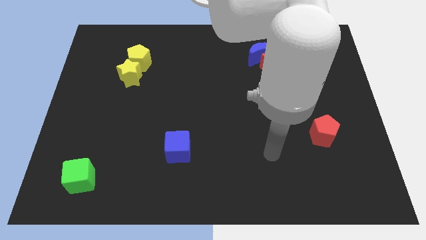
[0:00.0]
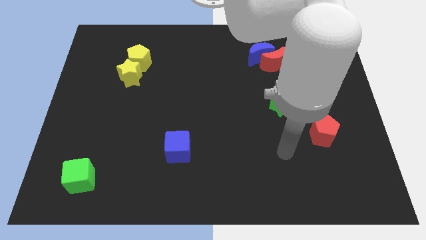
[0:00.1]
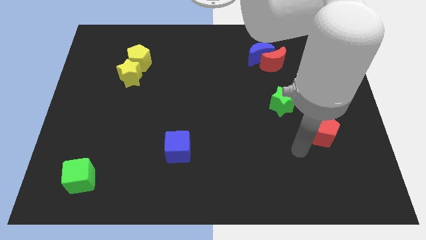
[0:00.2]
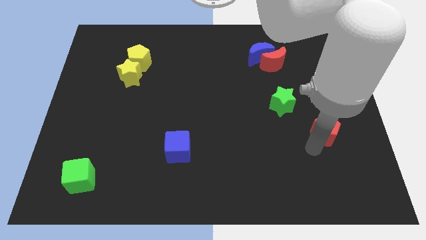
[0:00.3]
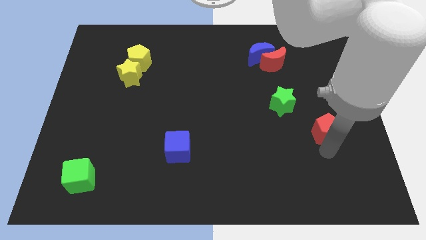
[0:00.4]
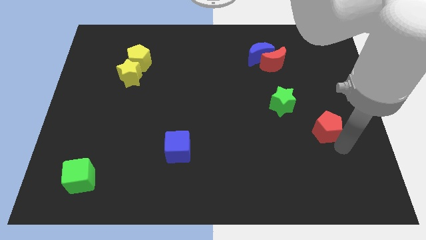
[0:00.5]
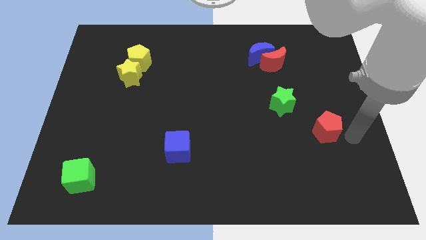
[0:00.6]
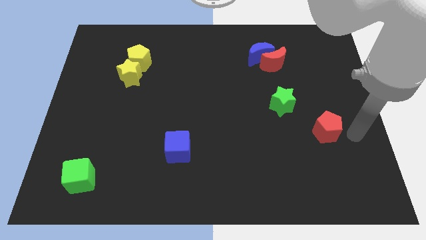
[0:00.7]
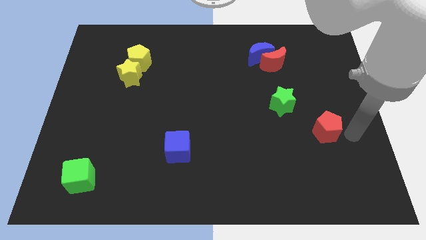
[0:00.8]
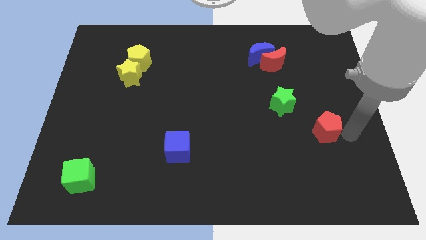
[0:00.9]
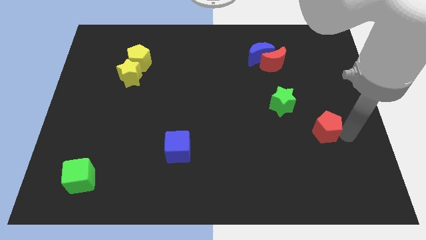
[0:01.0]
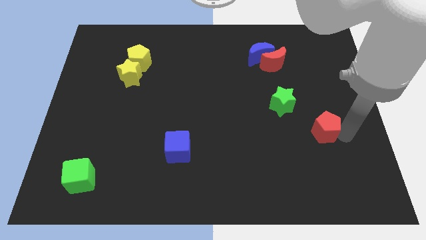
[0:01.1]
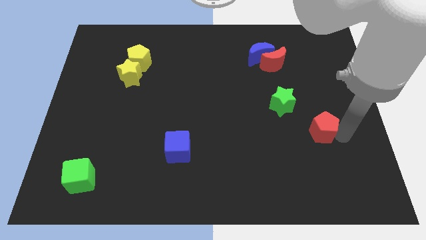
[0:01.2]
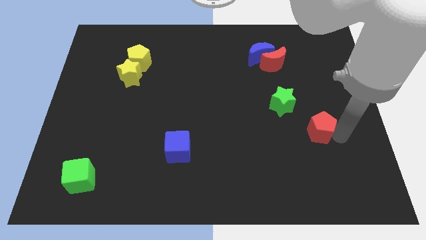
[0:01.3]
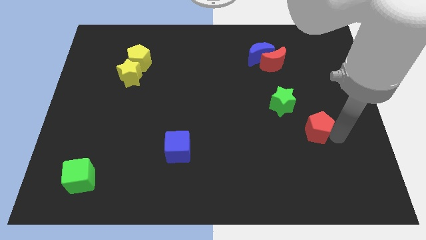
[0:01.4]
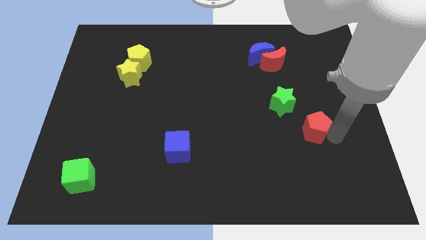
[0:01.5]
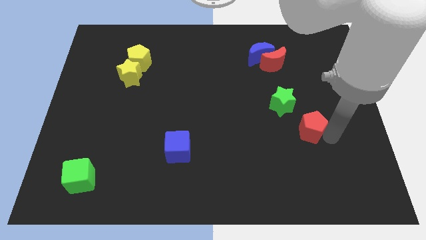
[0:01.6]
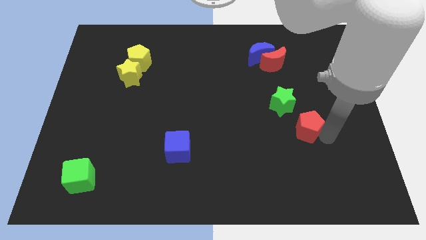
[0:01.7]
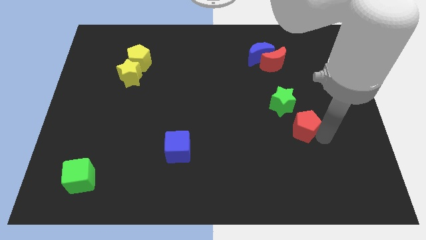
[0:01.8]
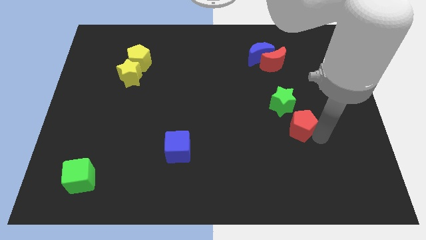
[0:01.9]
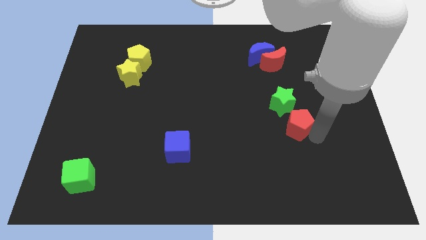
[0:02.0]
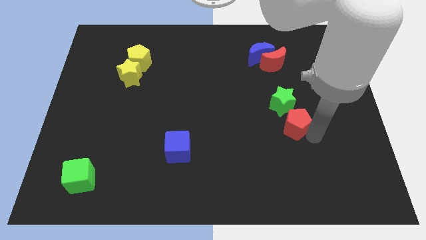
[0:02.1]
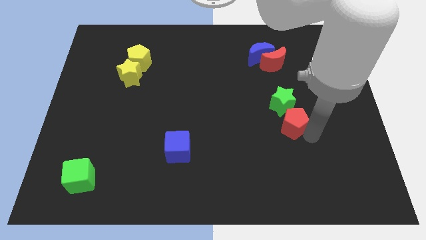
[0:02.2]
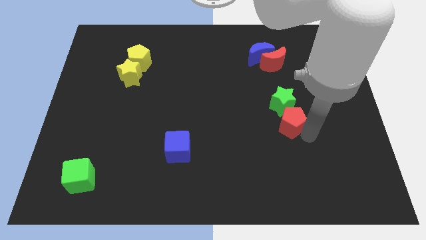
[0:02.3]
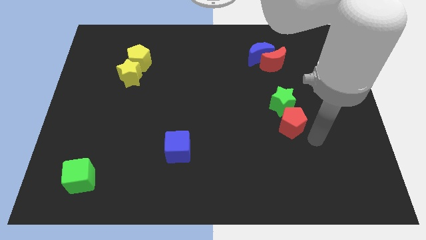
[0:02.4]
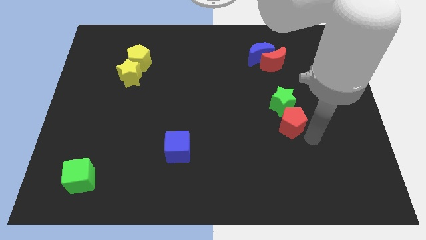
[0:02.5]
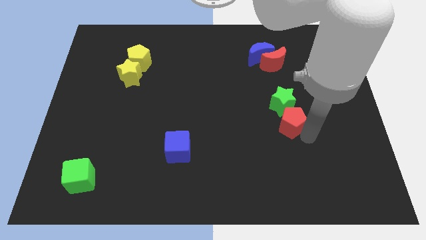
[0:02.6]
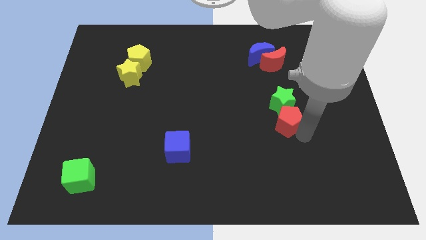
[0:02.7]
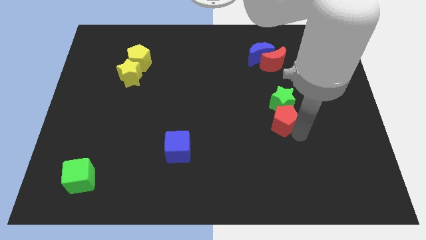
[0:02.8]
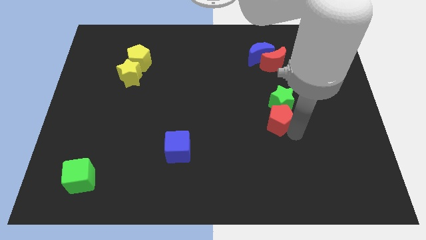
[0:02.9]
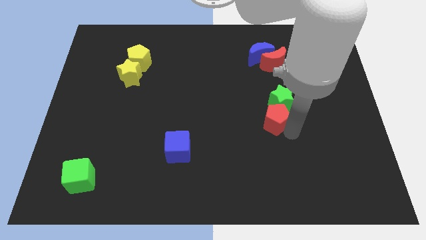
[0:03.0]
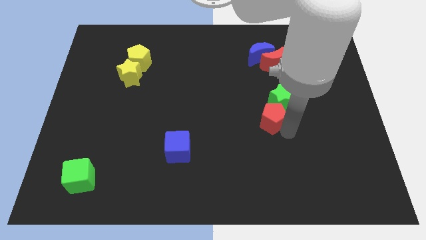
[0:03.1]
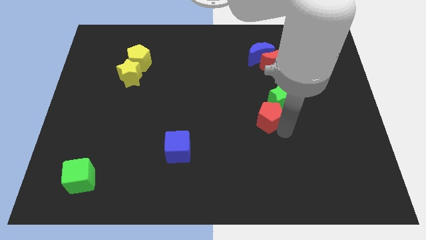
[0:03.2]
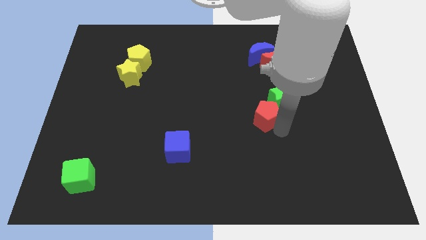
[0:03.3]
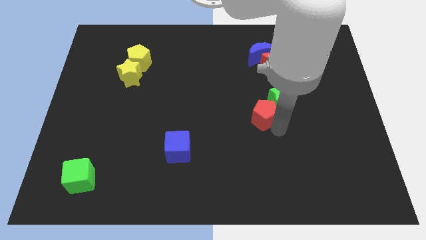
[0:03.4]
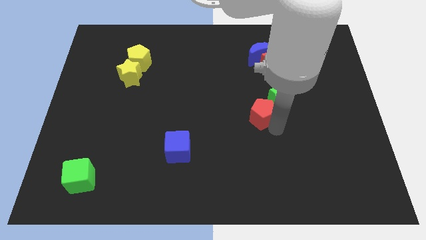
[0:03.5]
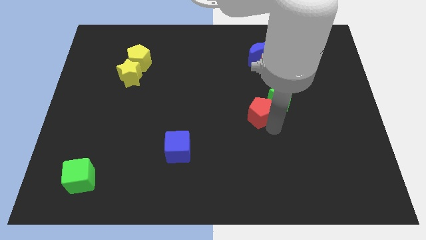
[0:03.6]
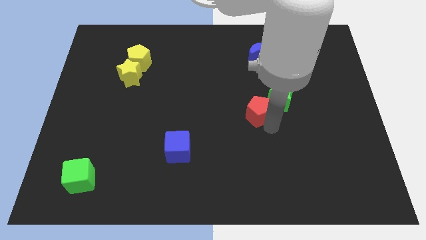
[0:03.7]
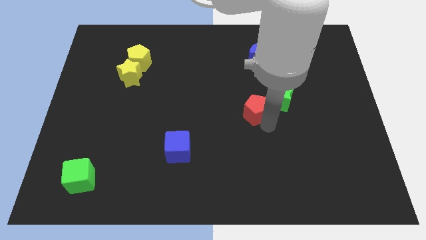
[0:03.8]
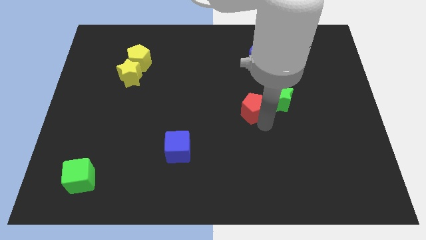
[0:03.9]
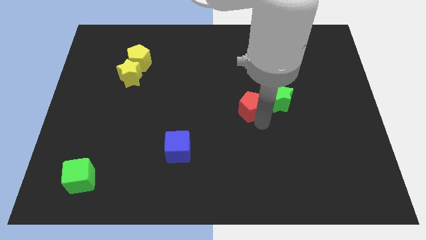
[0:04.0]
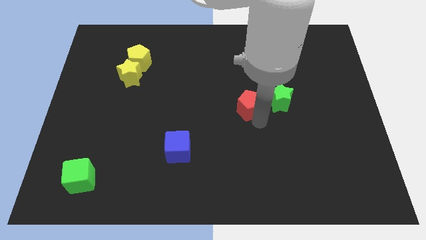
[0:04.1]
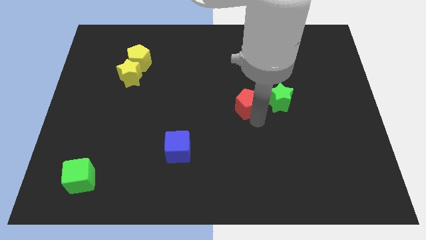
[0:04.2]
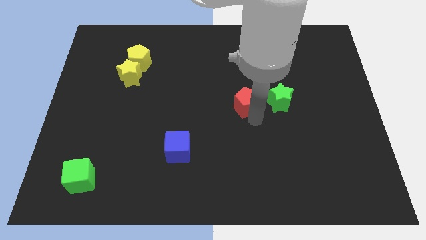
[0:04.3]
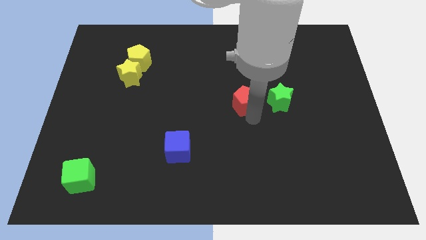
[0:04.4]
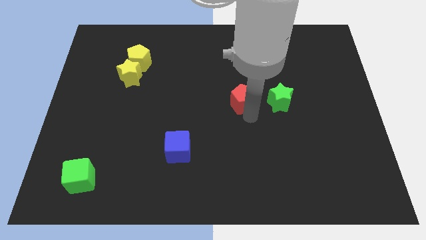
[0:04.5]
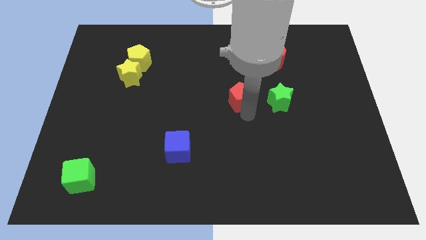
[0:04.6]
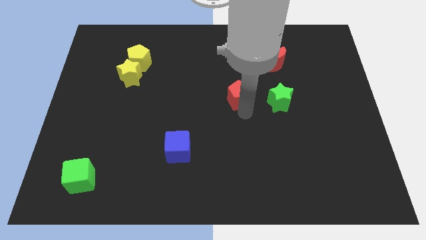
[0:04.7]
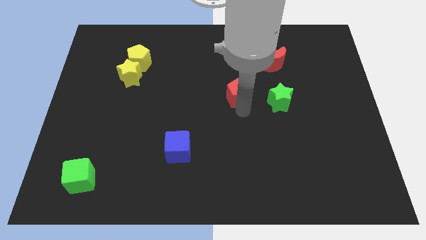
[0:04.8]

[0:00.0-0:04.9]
push the red pentagon up and to the left diagonally

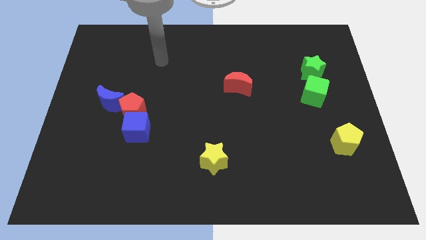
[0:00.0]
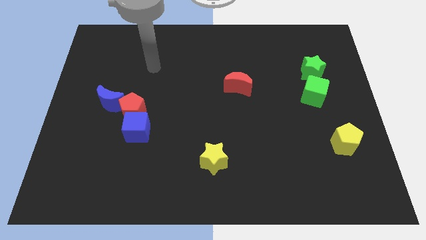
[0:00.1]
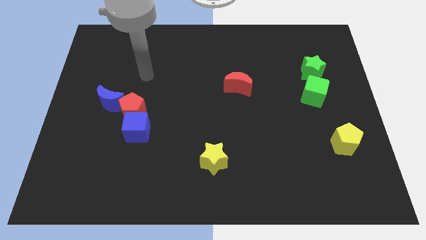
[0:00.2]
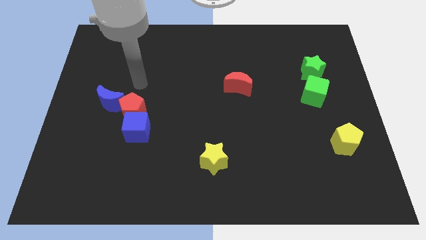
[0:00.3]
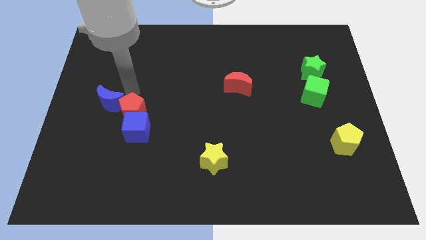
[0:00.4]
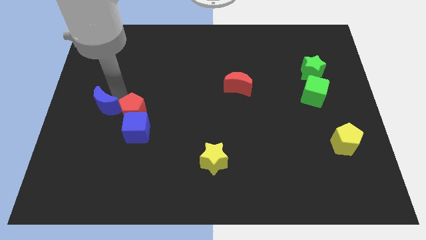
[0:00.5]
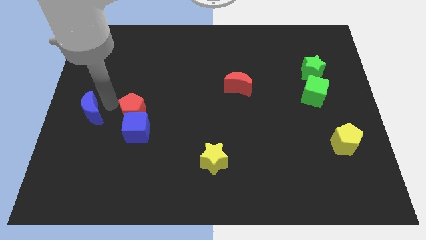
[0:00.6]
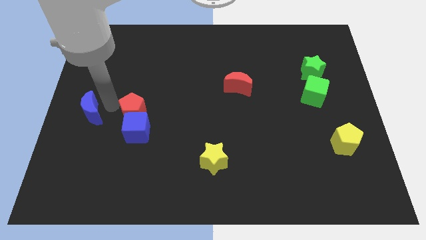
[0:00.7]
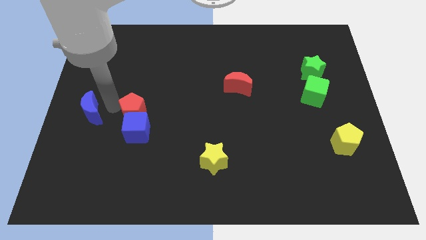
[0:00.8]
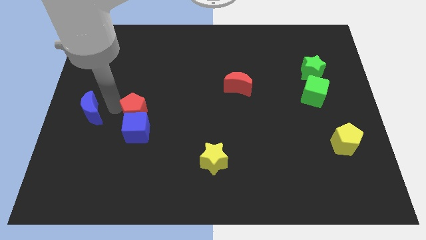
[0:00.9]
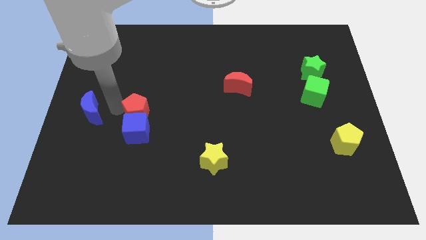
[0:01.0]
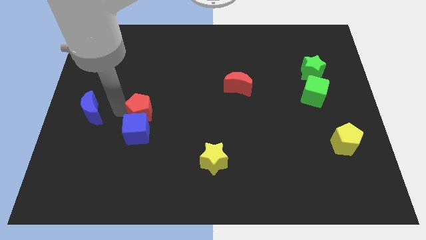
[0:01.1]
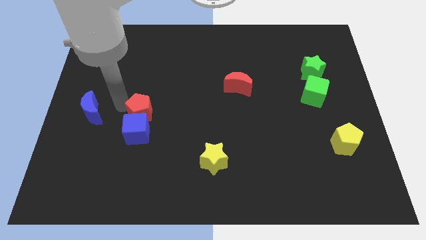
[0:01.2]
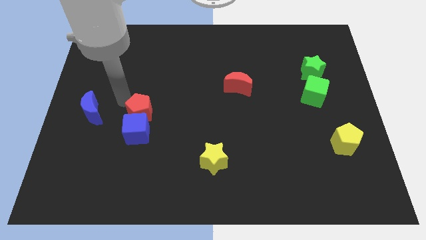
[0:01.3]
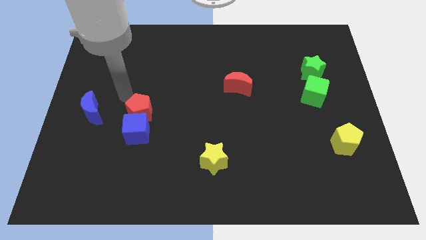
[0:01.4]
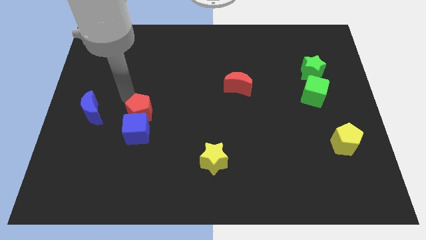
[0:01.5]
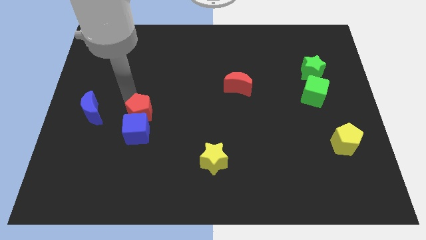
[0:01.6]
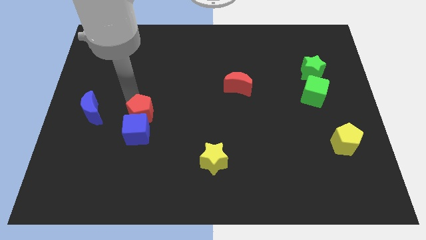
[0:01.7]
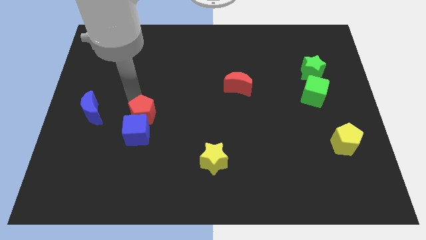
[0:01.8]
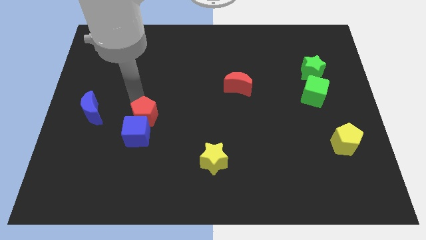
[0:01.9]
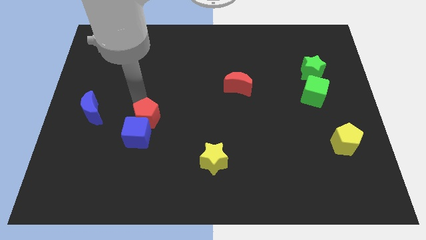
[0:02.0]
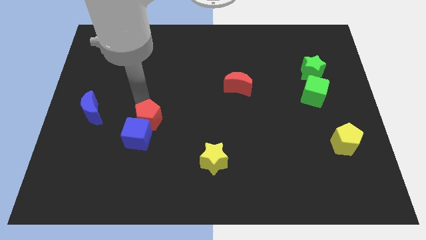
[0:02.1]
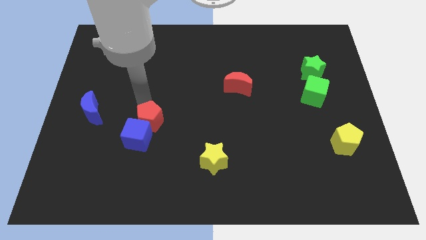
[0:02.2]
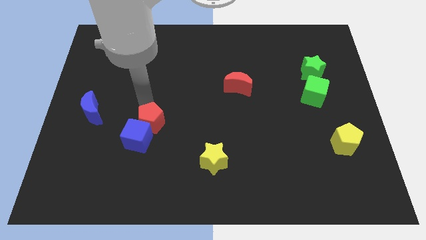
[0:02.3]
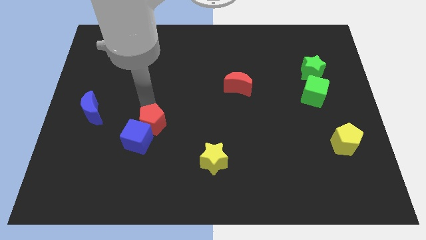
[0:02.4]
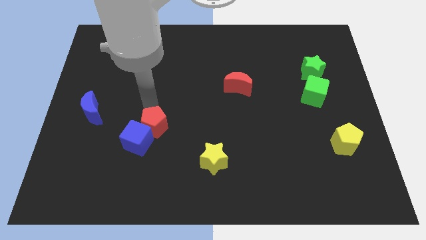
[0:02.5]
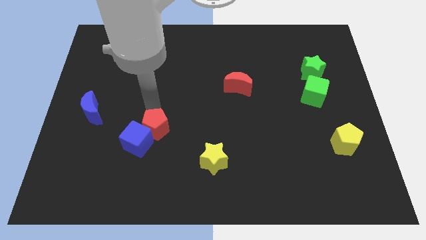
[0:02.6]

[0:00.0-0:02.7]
push the red pentagon slightly downwards and right diagonally

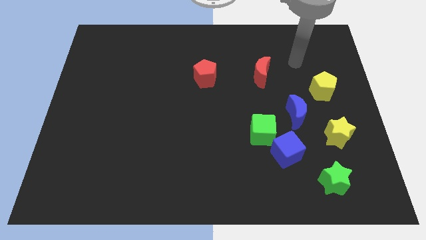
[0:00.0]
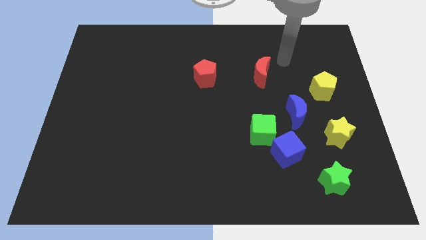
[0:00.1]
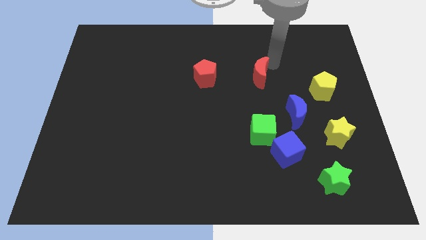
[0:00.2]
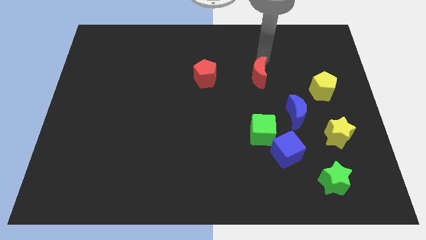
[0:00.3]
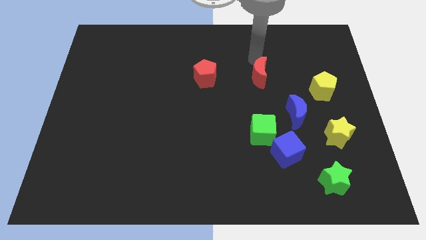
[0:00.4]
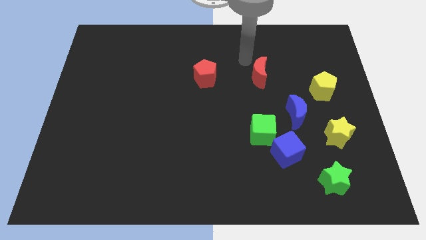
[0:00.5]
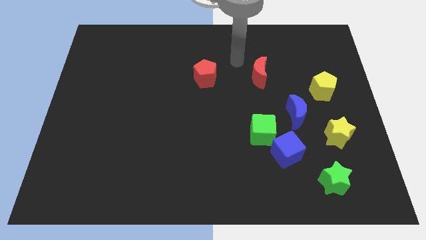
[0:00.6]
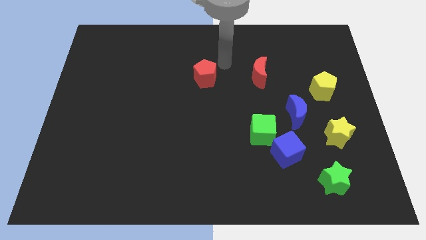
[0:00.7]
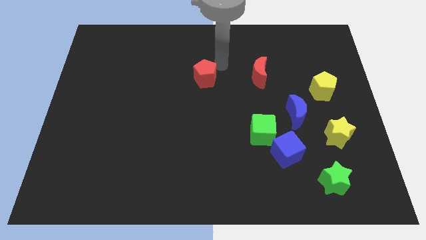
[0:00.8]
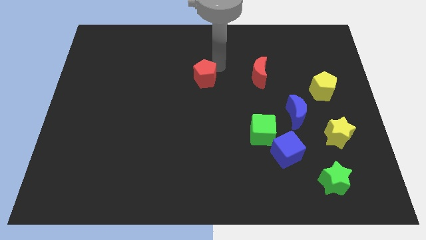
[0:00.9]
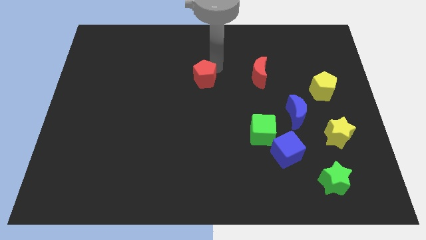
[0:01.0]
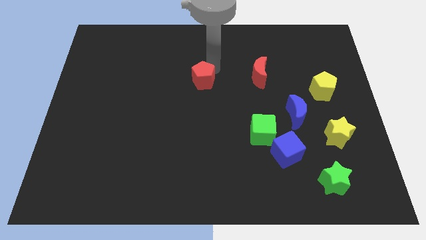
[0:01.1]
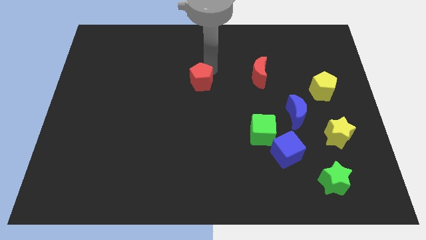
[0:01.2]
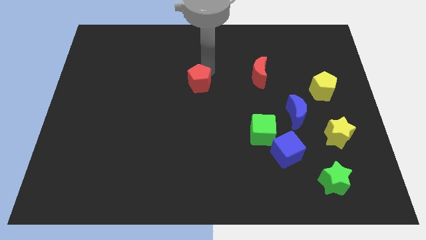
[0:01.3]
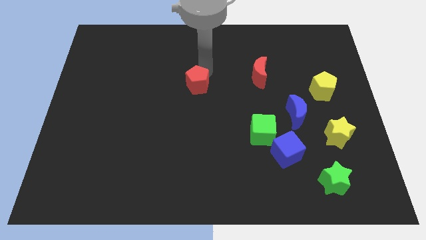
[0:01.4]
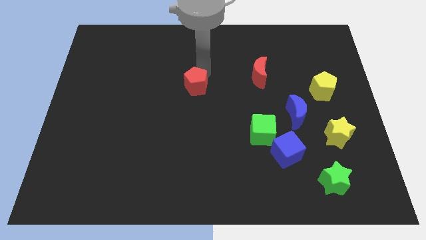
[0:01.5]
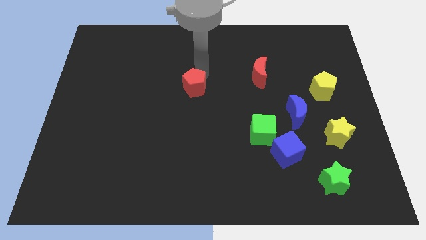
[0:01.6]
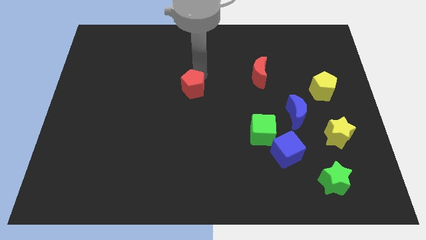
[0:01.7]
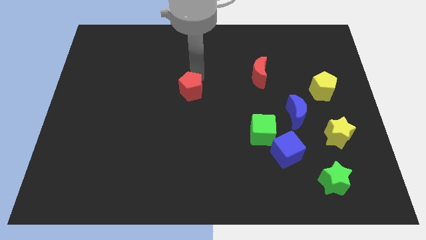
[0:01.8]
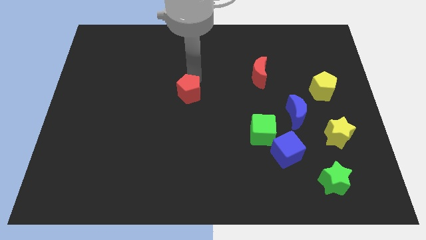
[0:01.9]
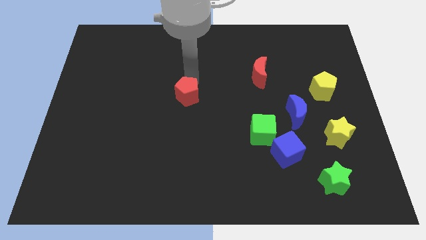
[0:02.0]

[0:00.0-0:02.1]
slide the red pentagon down and to the left diagonally somewhat
